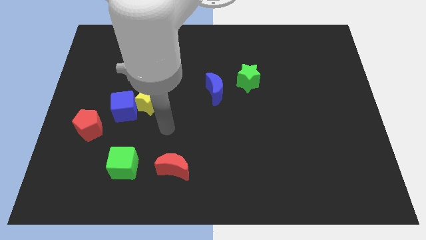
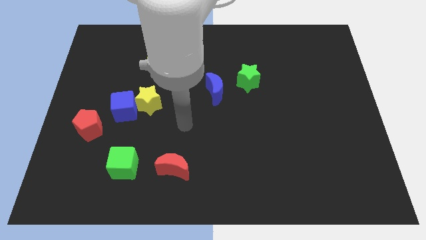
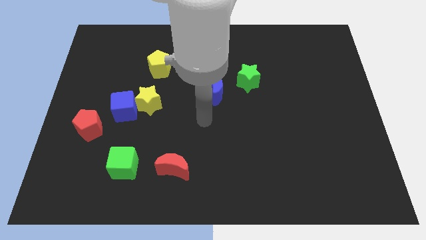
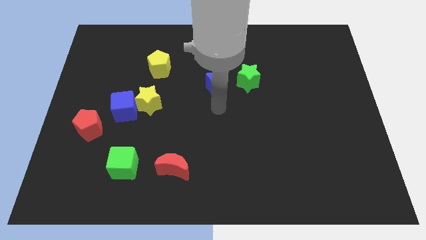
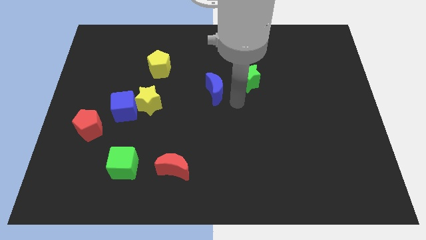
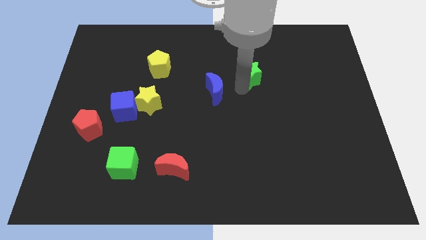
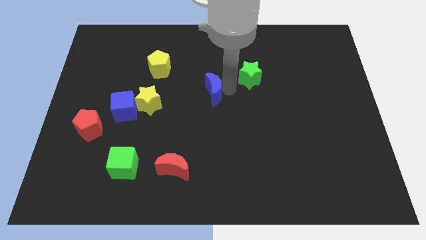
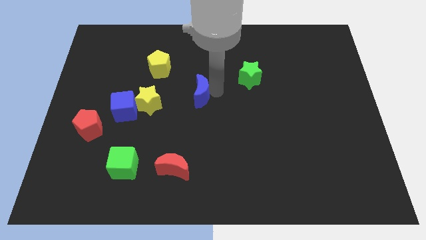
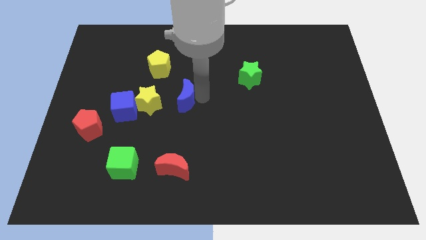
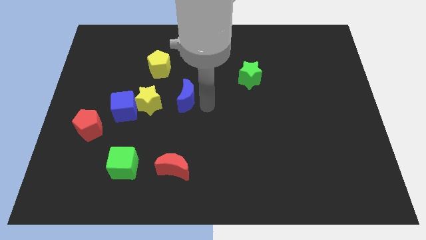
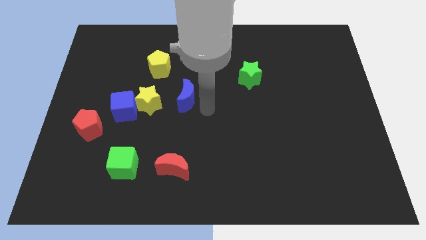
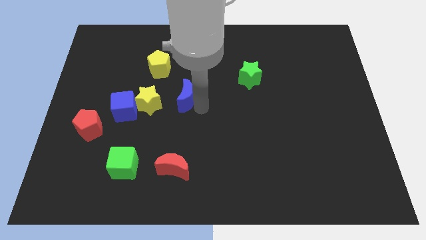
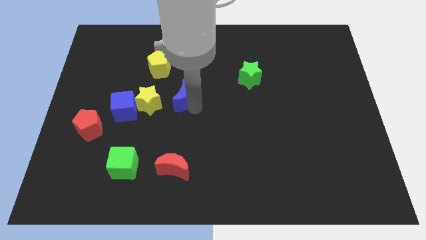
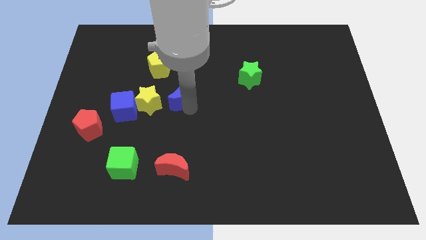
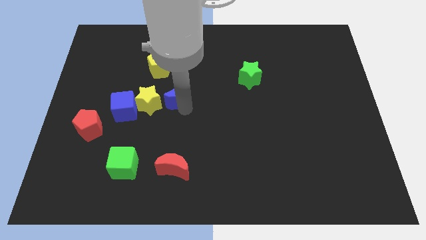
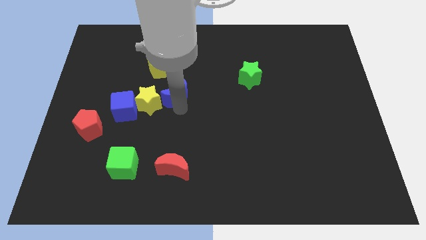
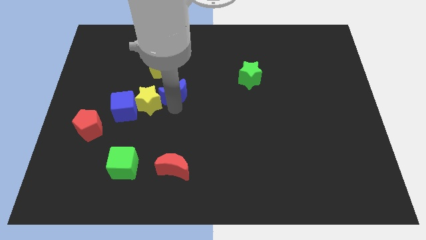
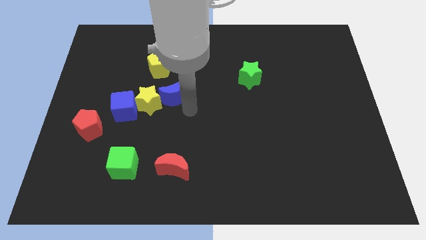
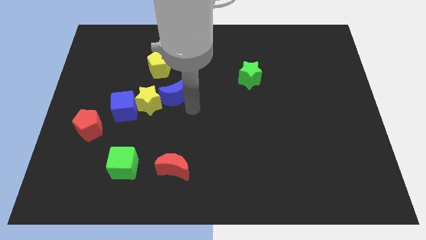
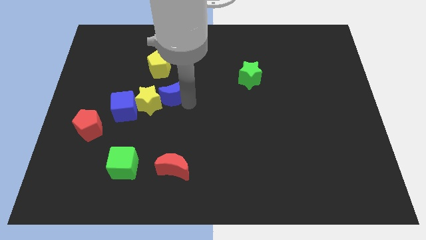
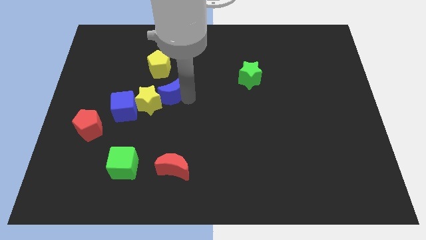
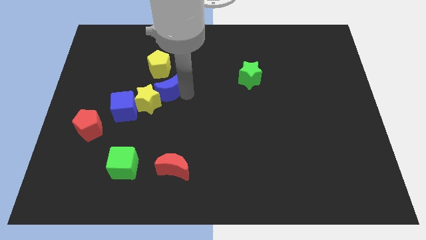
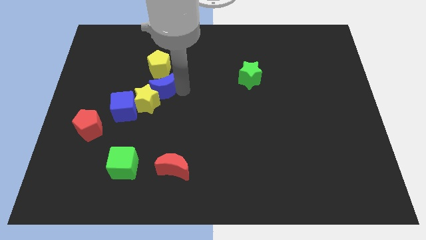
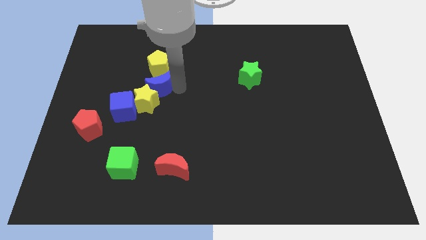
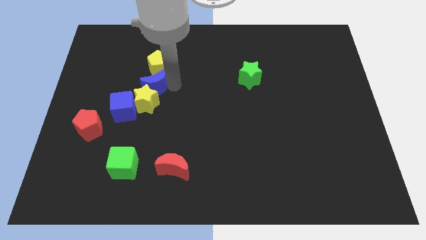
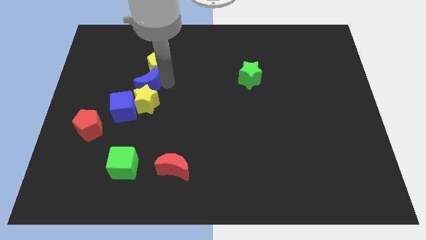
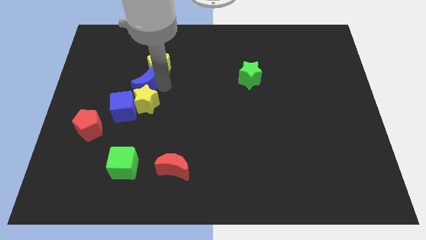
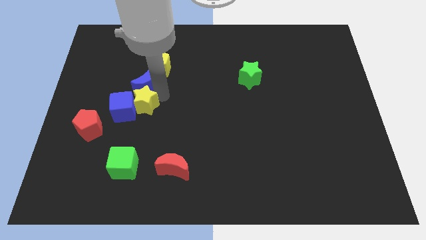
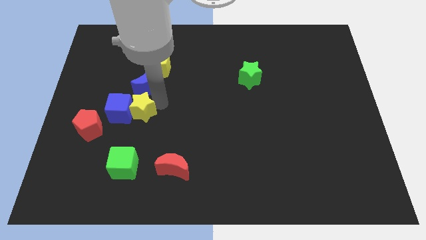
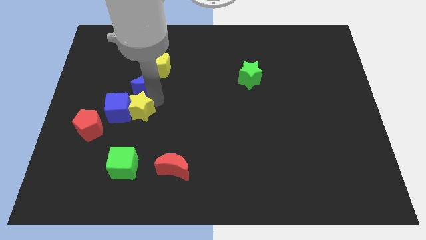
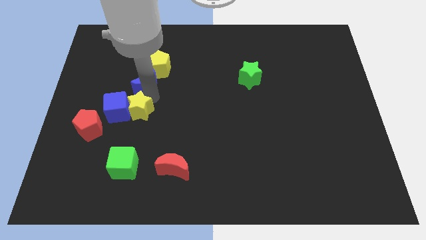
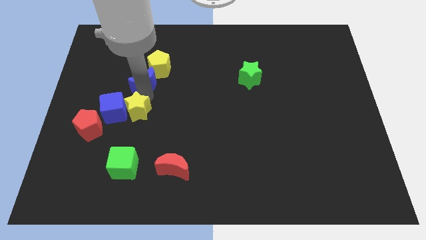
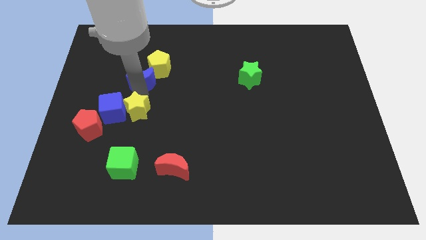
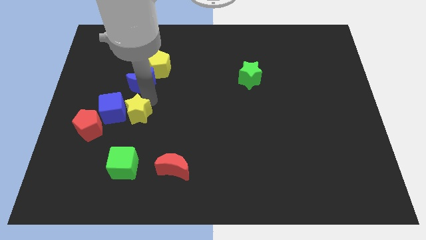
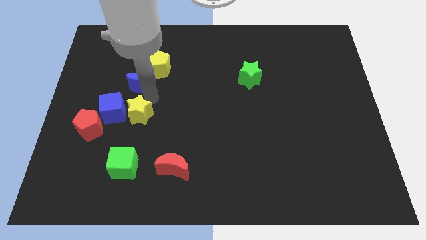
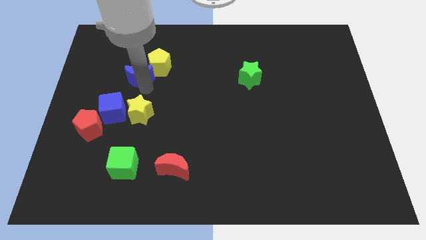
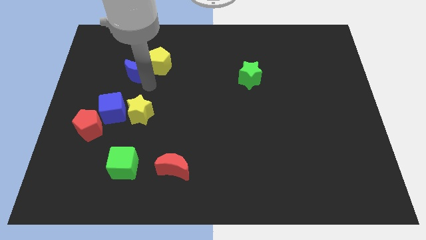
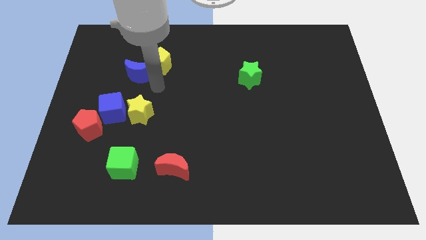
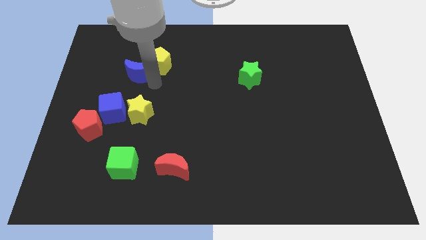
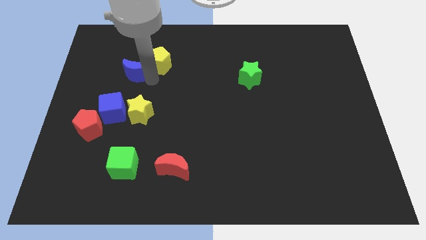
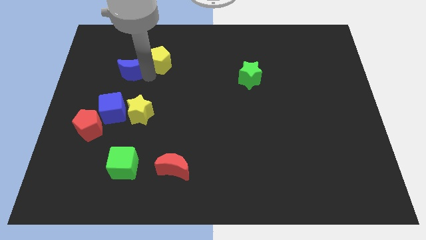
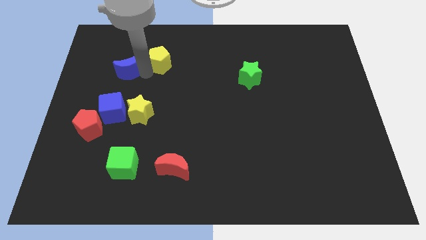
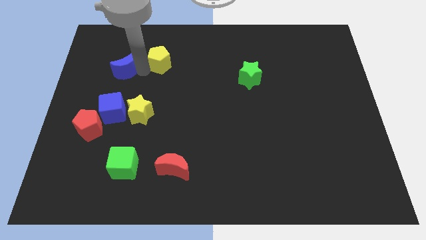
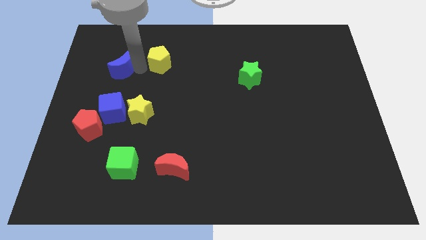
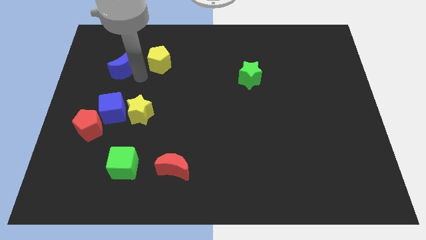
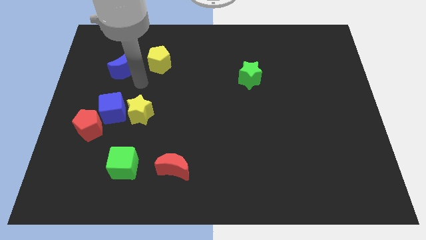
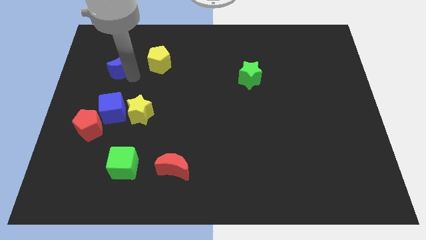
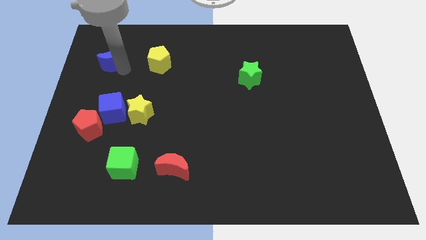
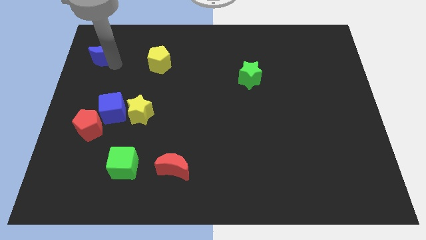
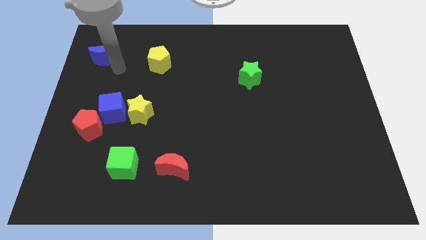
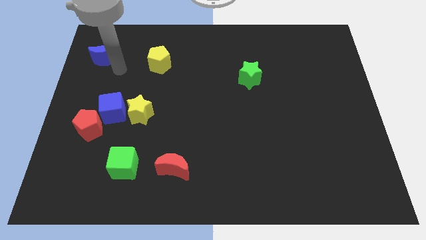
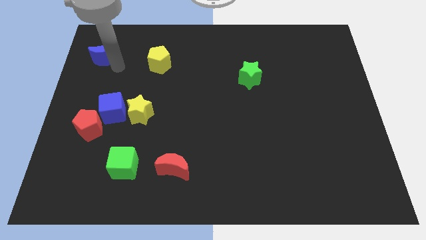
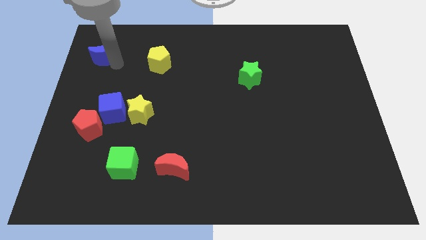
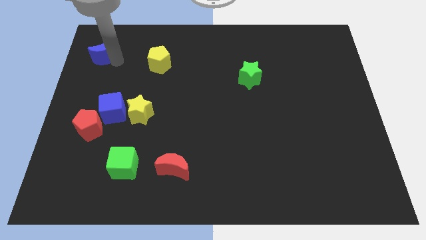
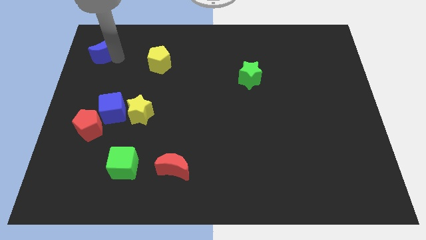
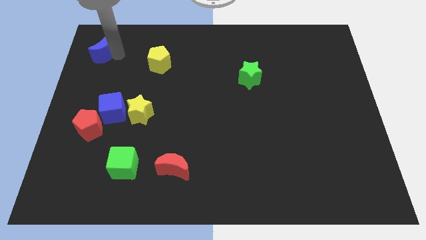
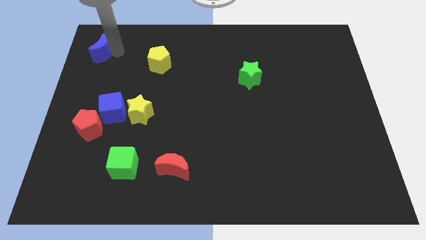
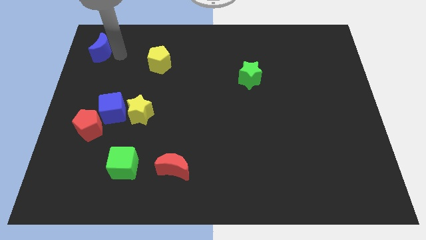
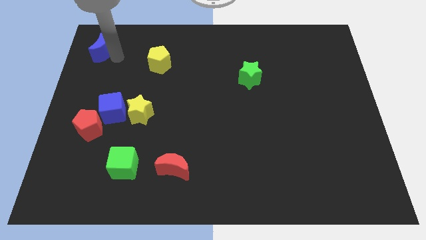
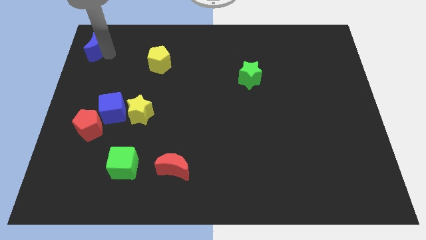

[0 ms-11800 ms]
put the blue moon to the top left of the board
